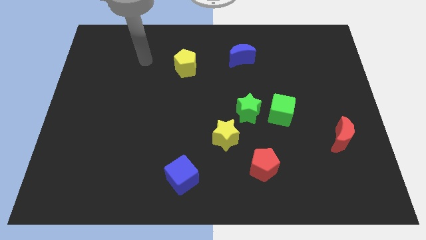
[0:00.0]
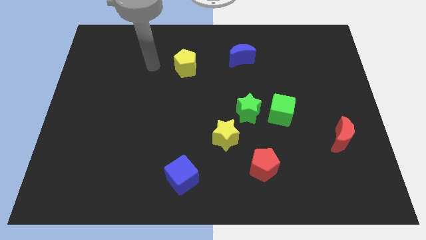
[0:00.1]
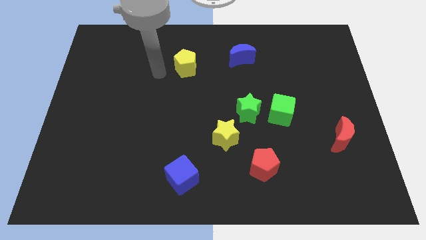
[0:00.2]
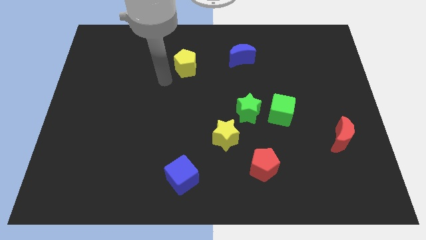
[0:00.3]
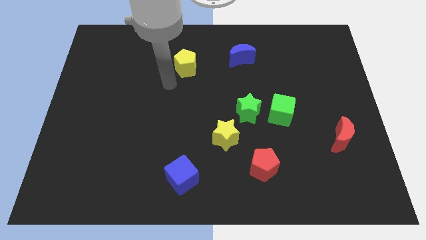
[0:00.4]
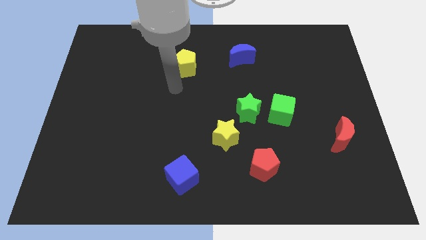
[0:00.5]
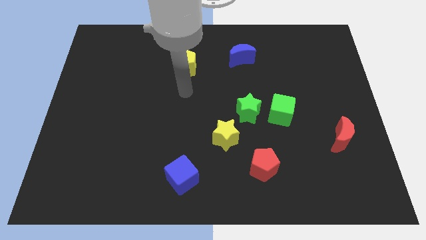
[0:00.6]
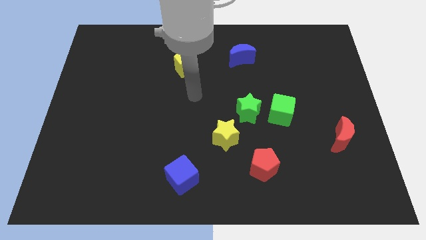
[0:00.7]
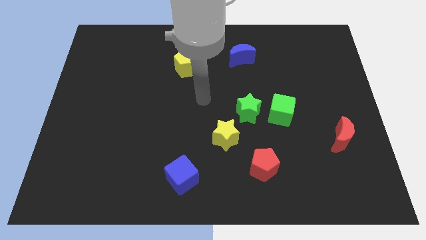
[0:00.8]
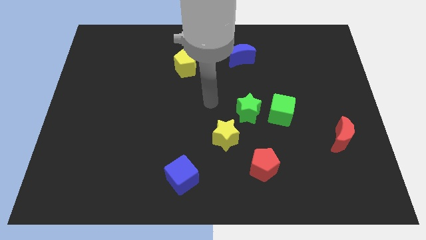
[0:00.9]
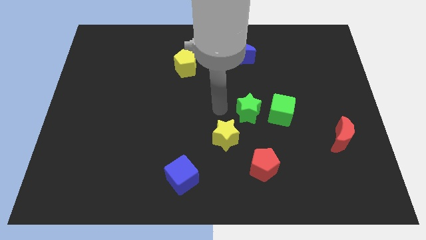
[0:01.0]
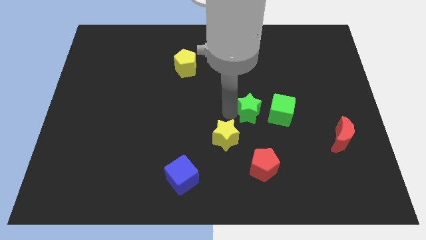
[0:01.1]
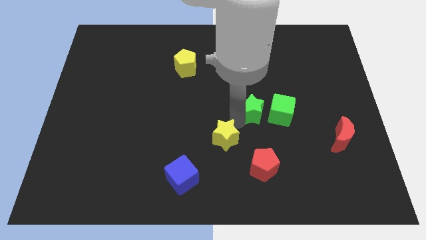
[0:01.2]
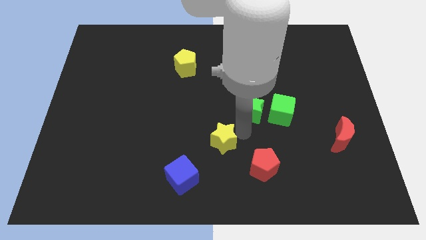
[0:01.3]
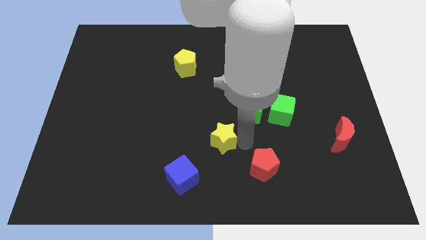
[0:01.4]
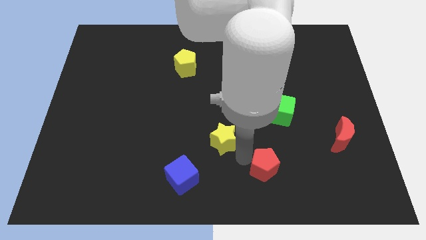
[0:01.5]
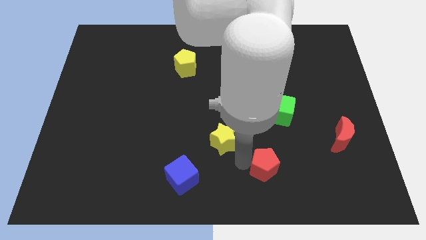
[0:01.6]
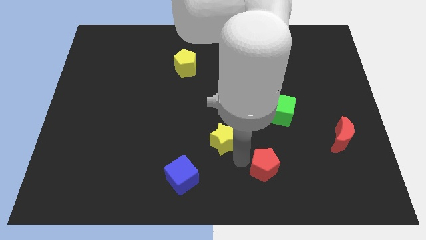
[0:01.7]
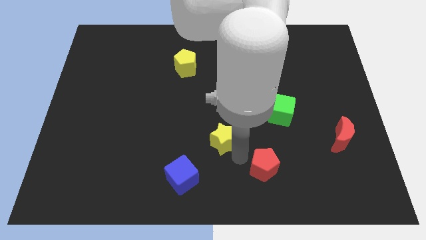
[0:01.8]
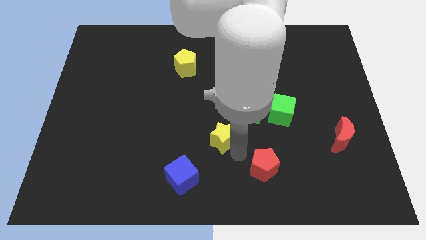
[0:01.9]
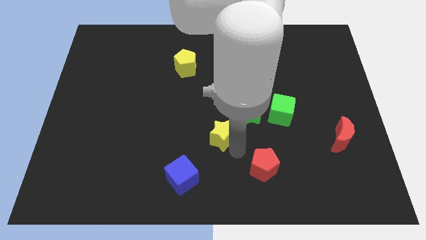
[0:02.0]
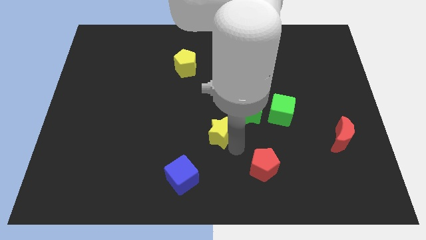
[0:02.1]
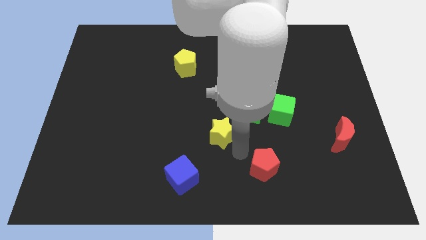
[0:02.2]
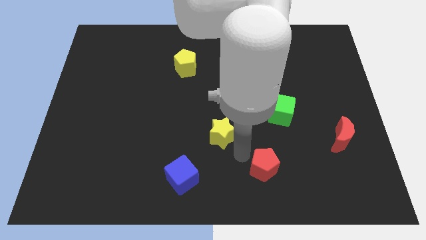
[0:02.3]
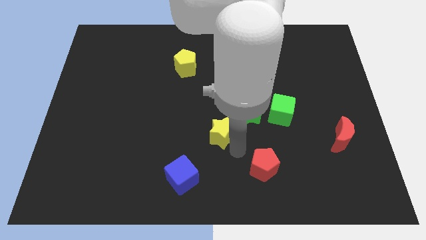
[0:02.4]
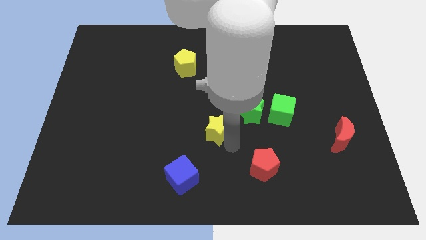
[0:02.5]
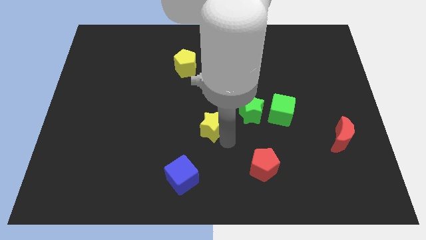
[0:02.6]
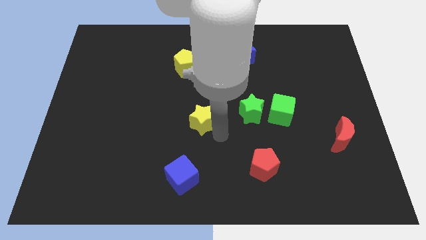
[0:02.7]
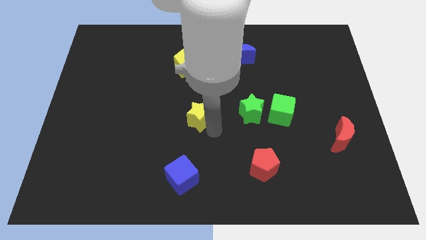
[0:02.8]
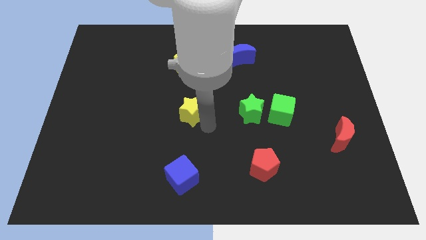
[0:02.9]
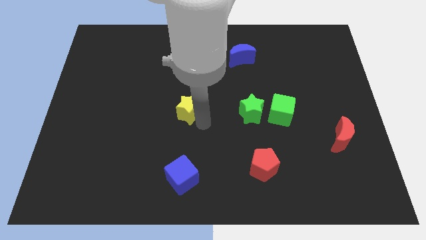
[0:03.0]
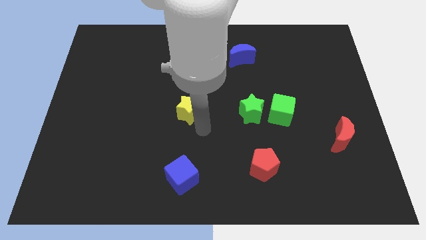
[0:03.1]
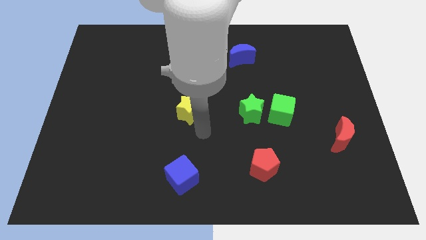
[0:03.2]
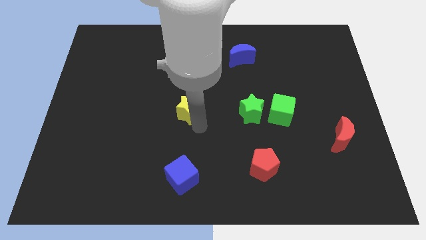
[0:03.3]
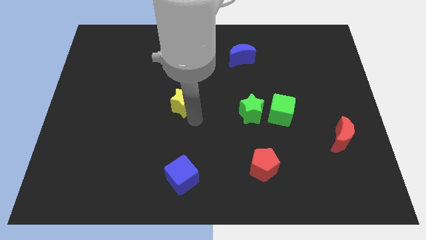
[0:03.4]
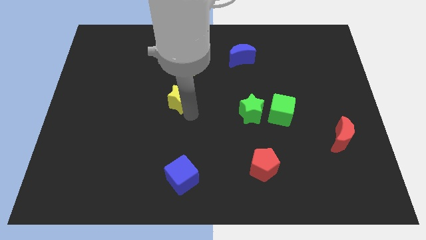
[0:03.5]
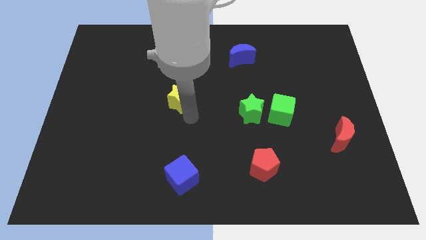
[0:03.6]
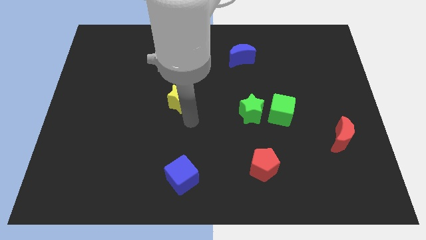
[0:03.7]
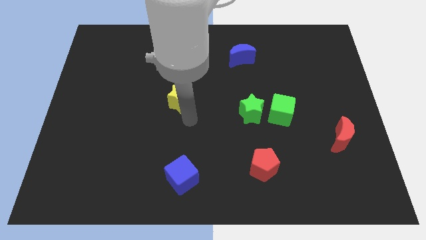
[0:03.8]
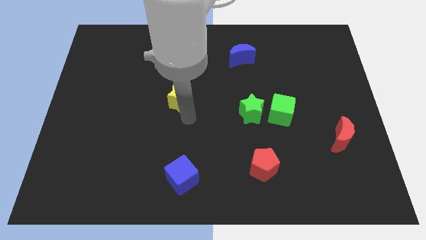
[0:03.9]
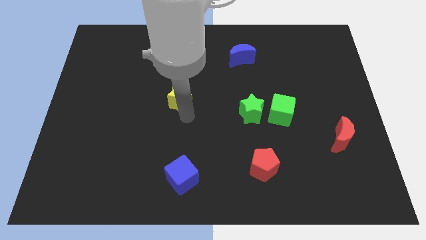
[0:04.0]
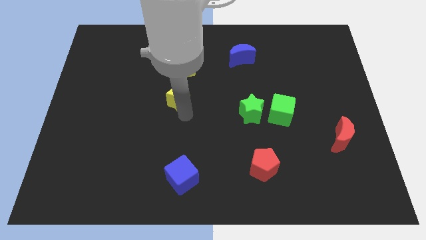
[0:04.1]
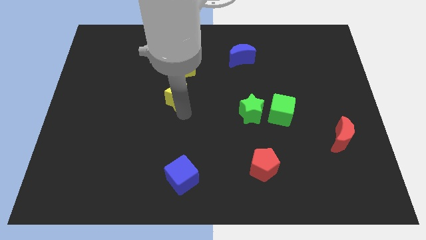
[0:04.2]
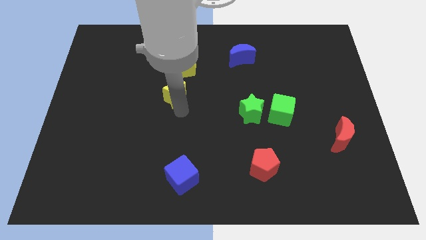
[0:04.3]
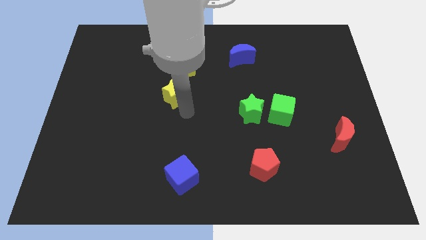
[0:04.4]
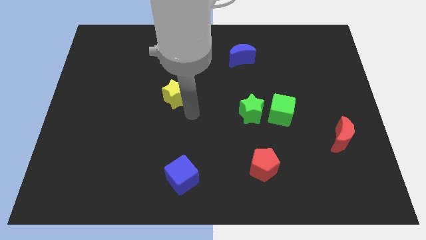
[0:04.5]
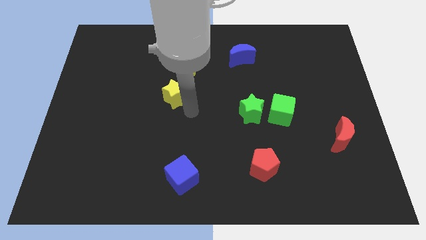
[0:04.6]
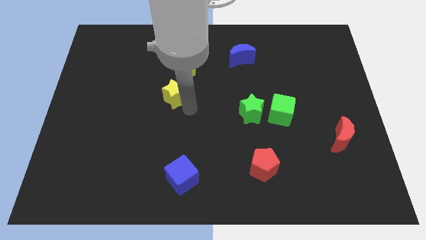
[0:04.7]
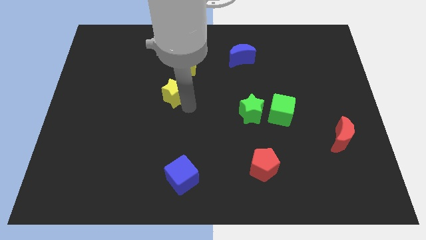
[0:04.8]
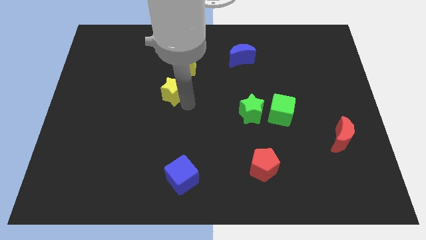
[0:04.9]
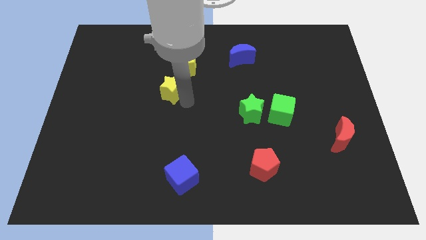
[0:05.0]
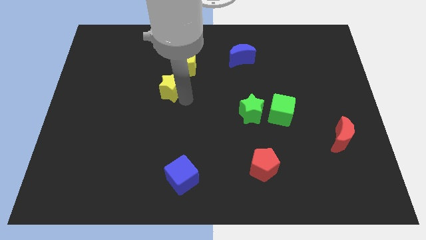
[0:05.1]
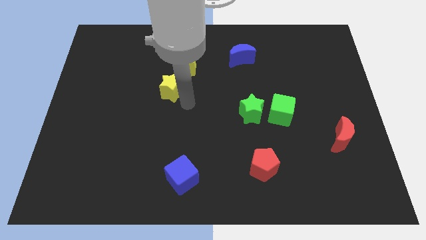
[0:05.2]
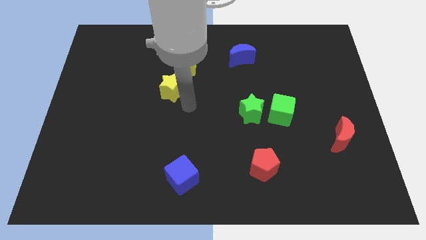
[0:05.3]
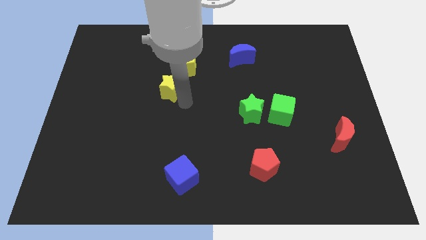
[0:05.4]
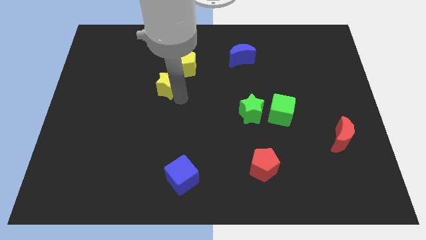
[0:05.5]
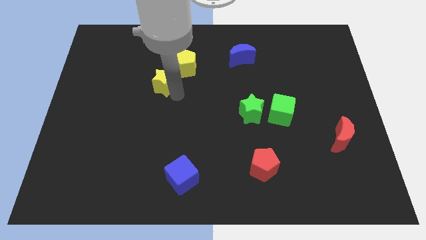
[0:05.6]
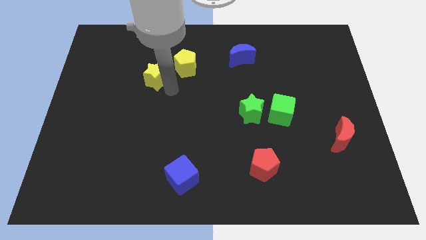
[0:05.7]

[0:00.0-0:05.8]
slide the yellow star to the left of the yellow pentagon
